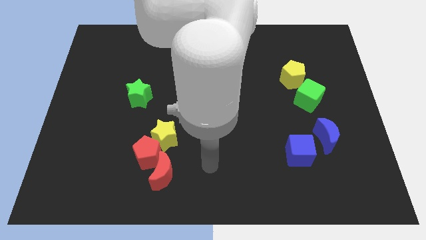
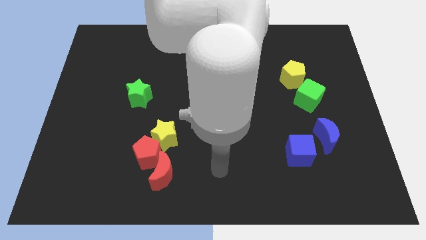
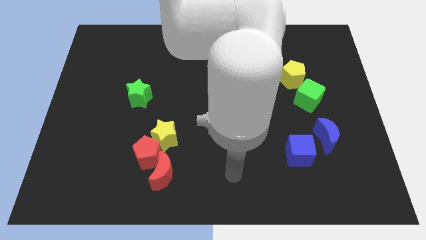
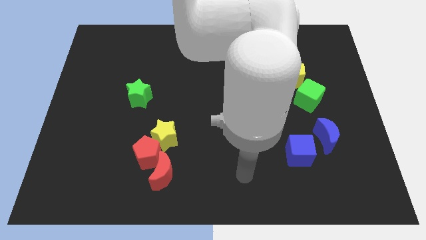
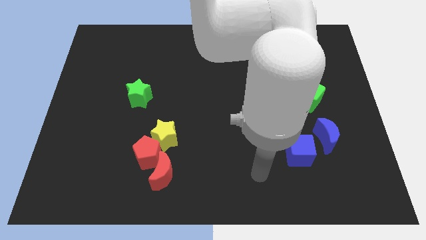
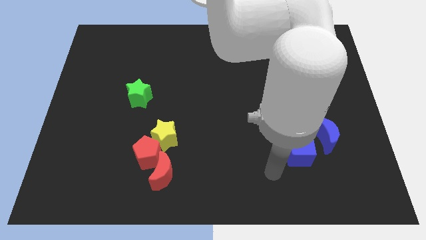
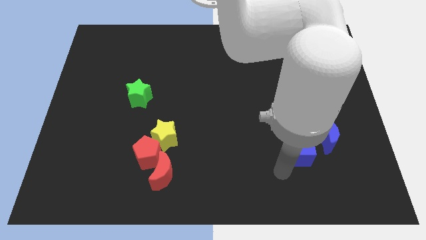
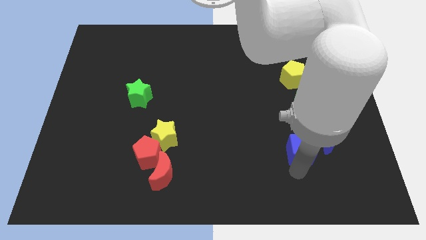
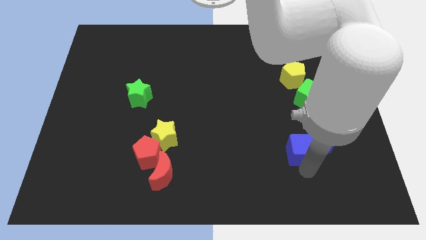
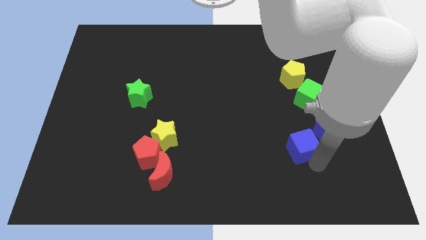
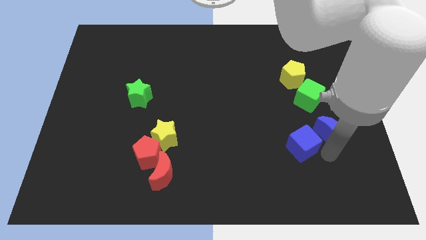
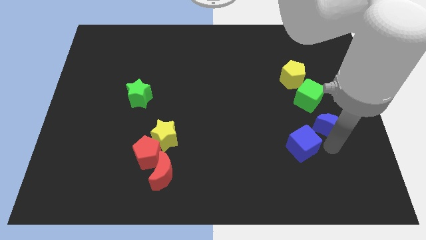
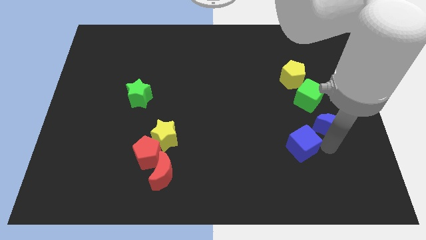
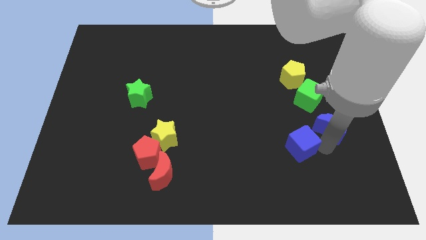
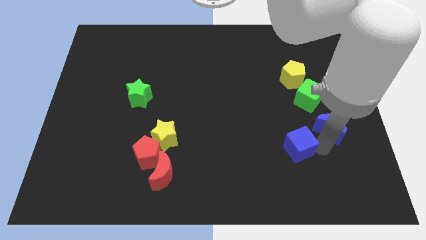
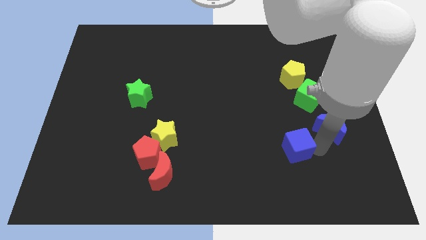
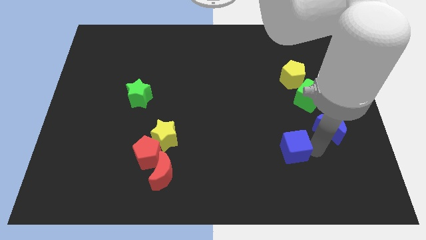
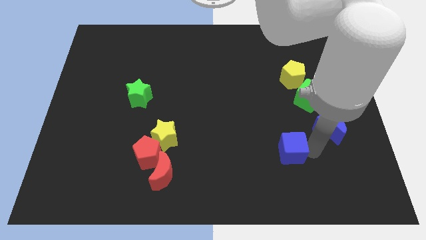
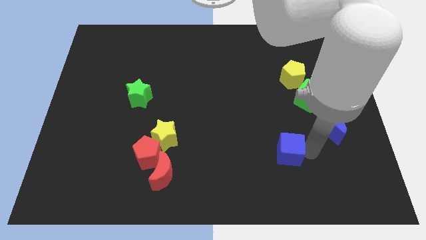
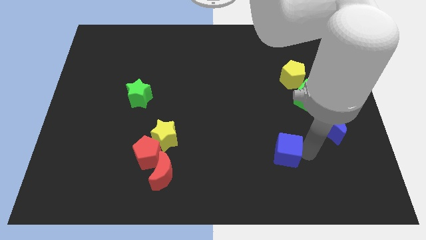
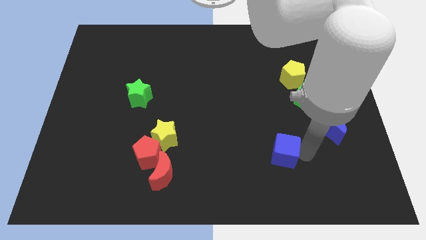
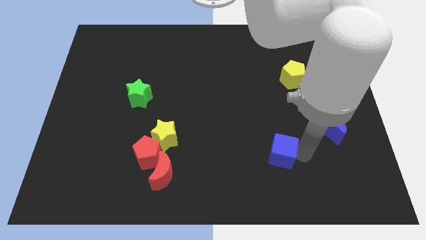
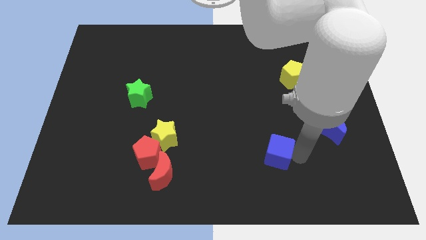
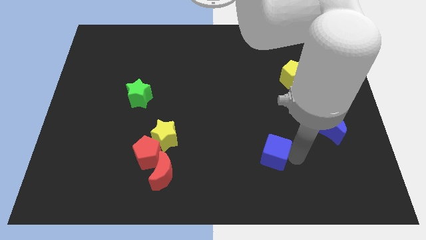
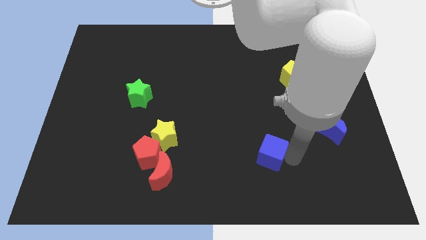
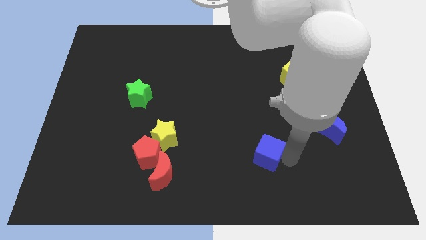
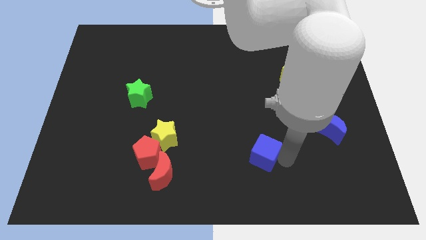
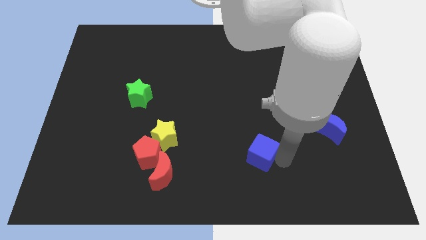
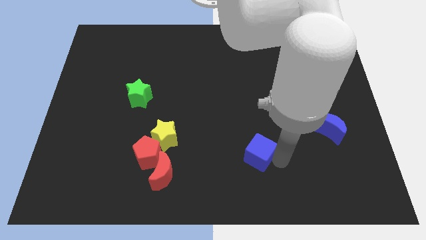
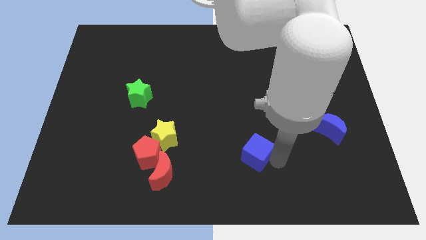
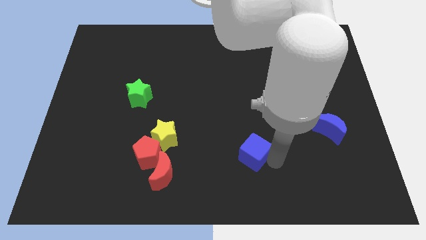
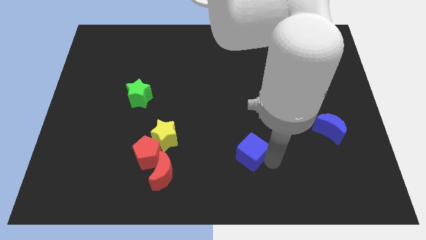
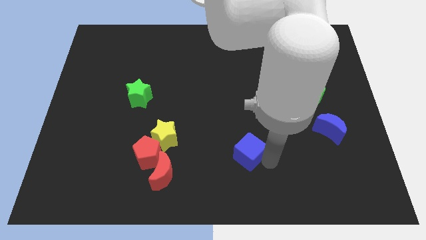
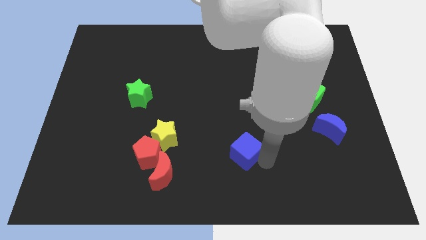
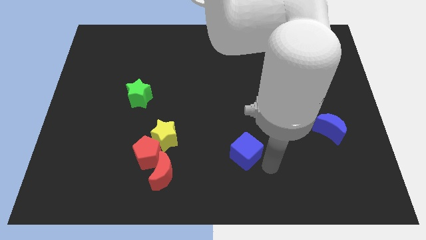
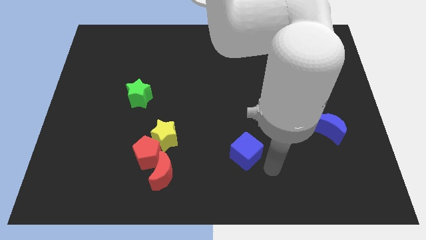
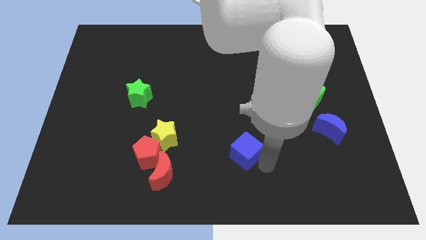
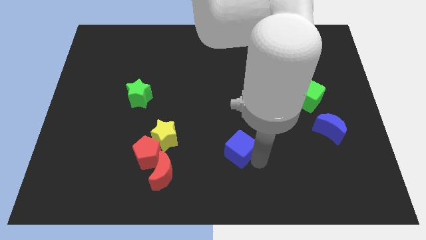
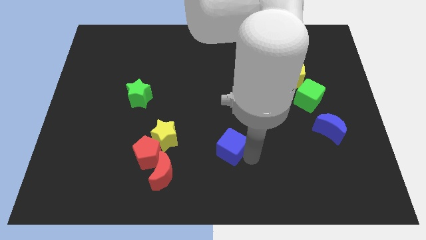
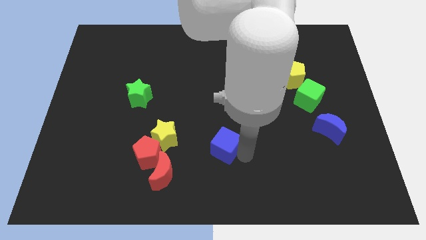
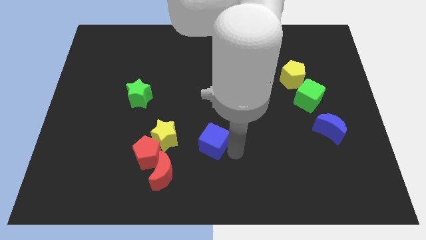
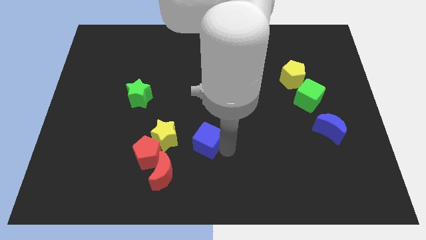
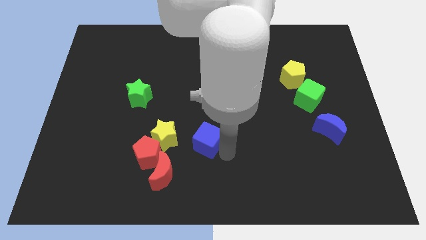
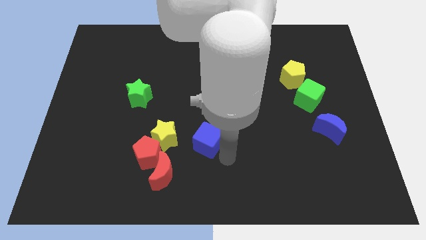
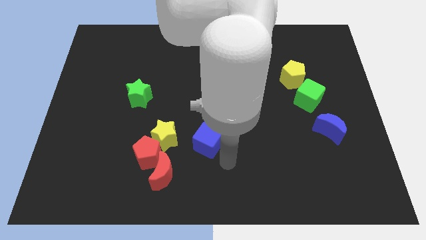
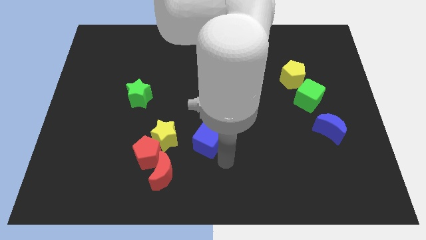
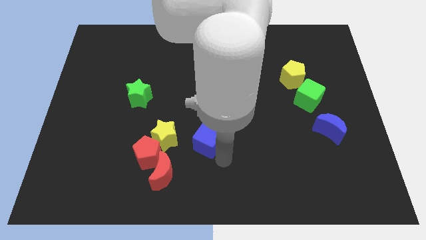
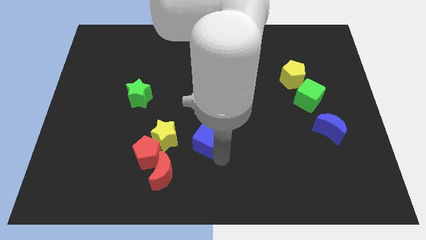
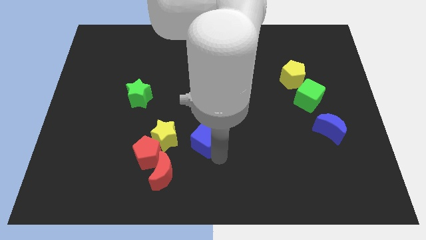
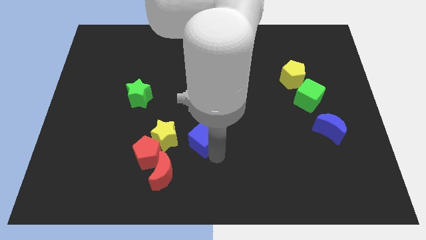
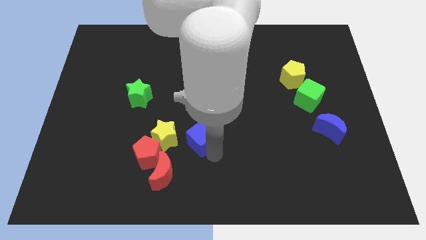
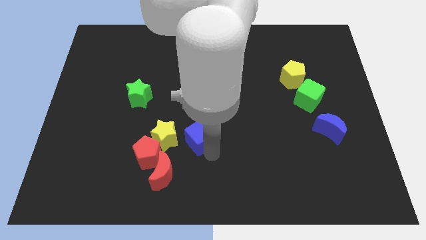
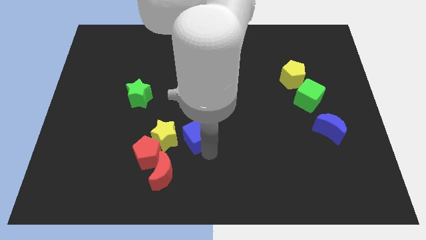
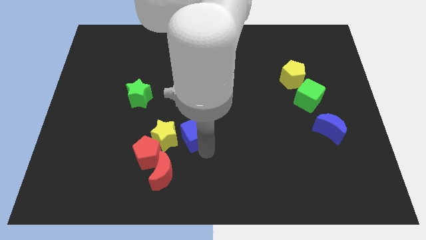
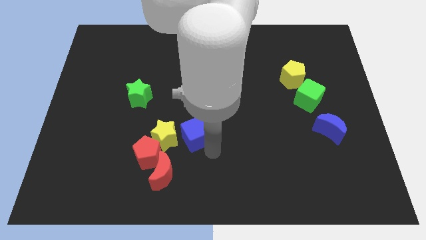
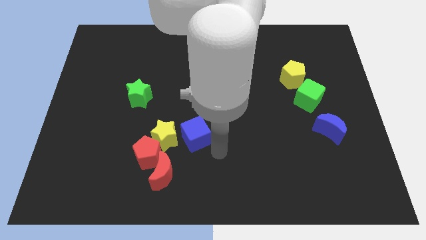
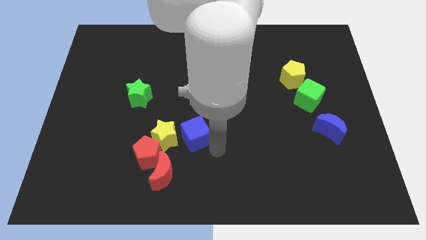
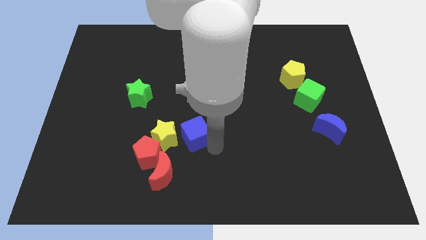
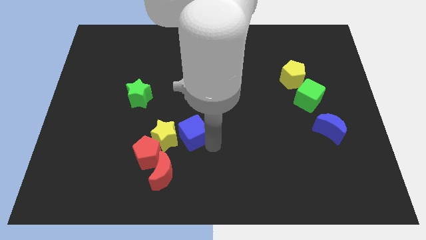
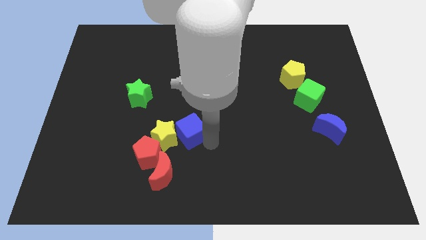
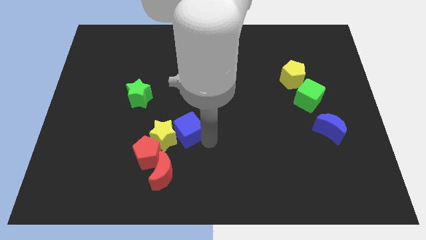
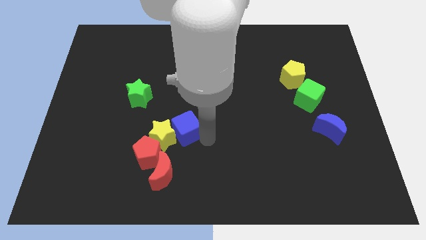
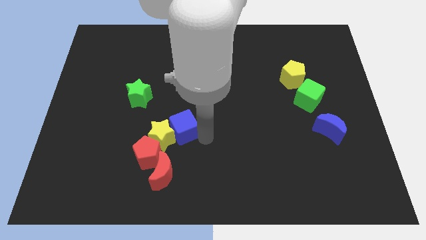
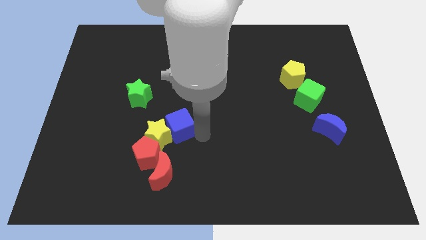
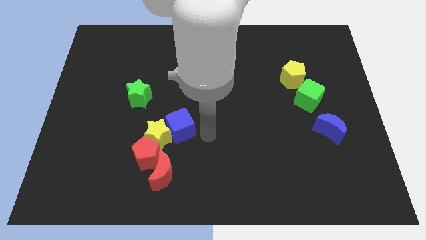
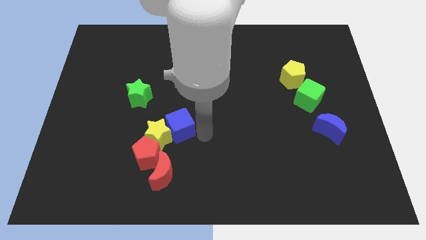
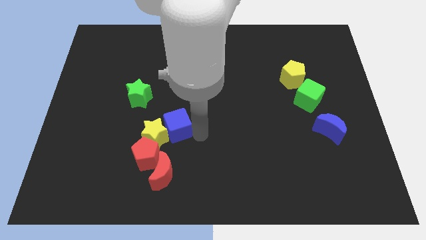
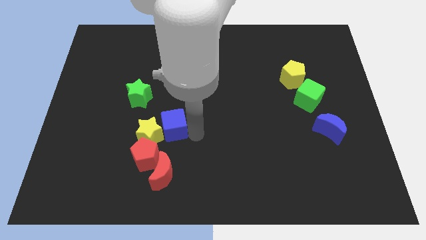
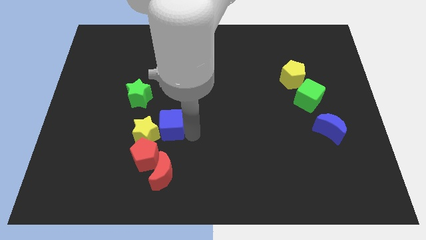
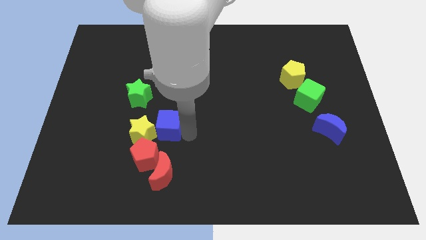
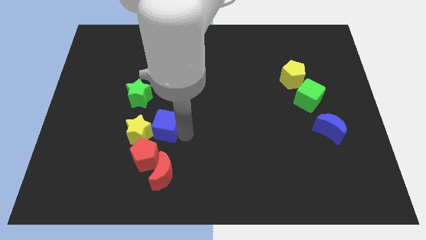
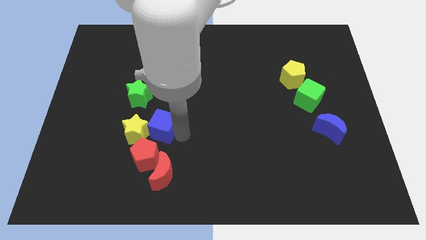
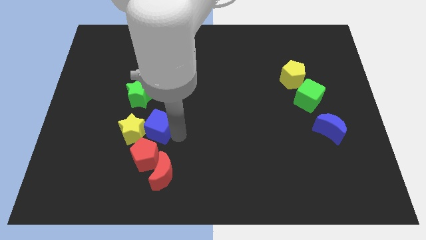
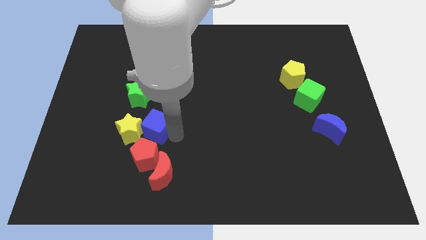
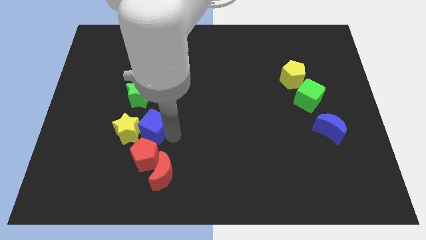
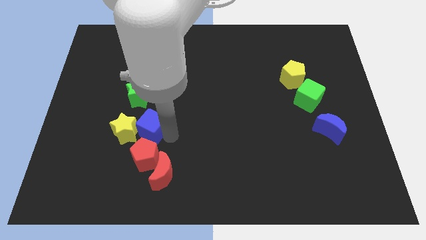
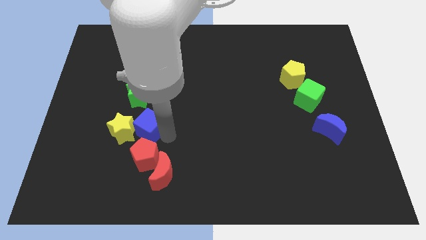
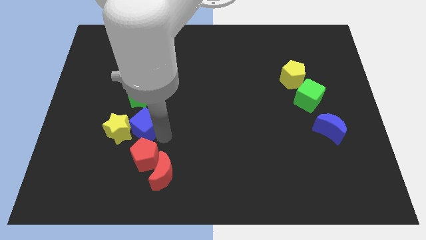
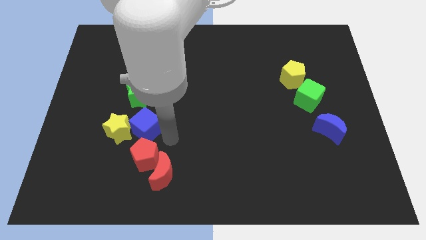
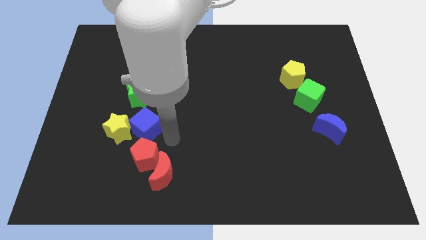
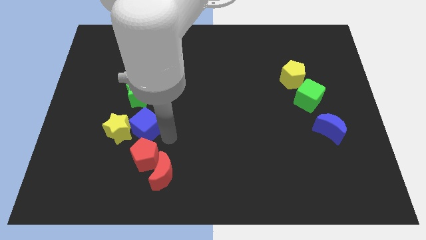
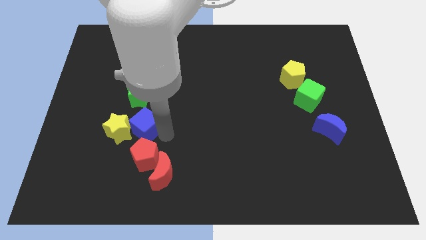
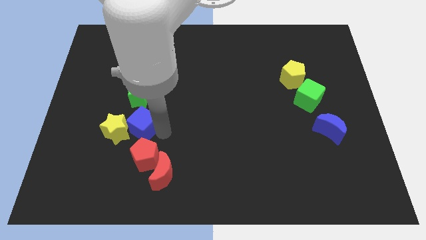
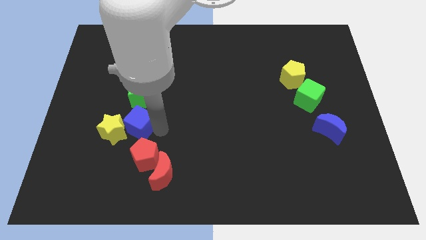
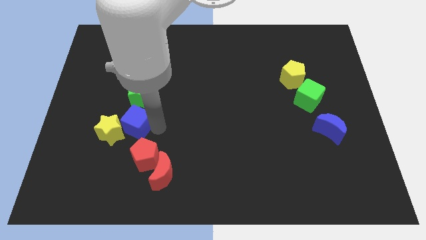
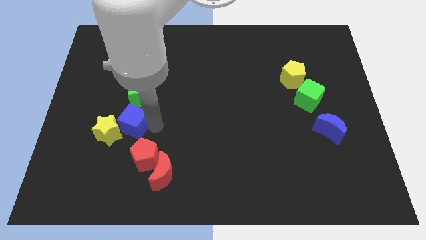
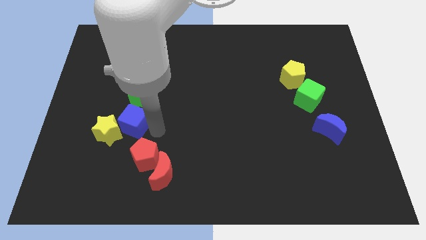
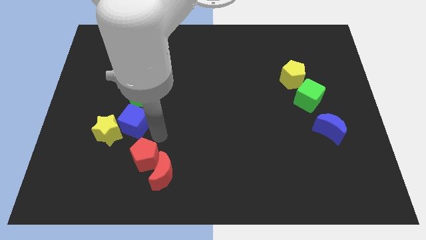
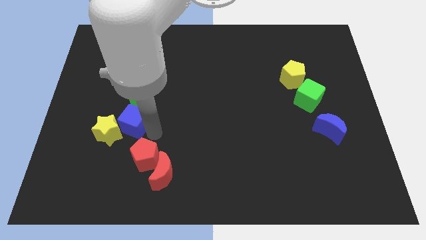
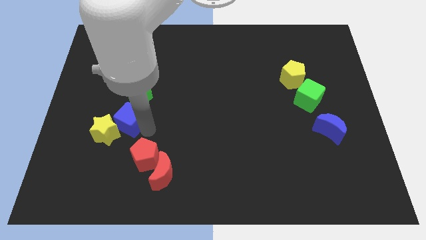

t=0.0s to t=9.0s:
slide the blue cube to the bottom left side of the green star
